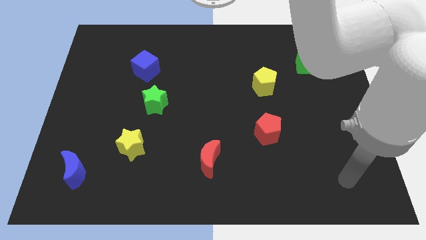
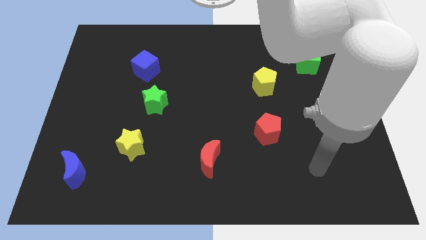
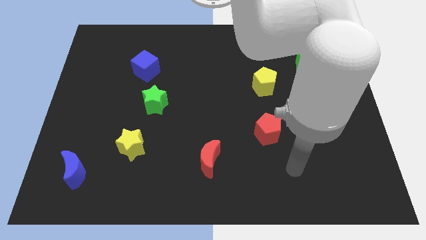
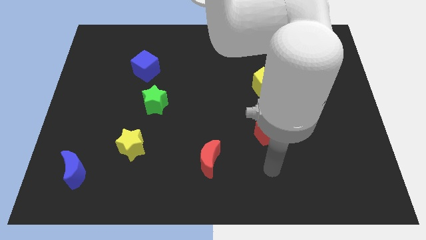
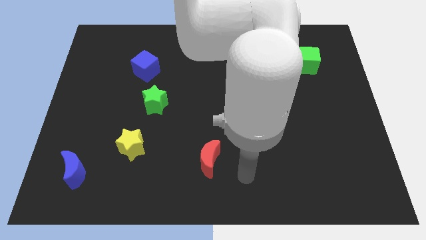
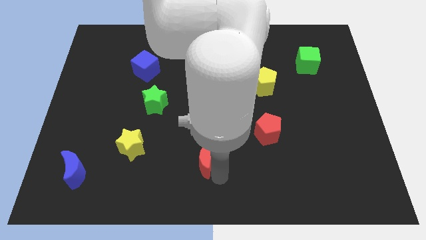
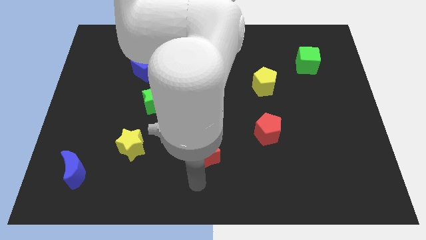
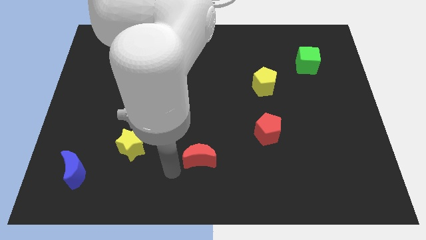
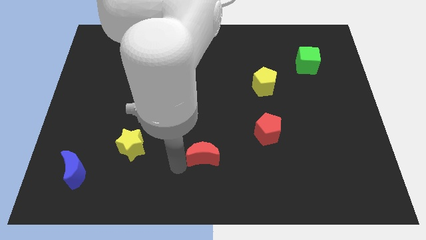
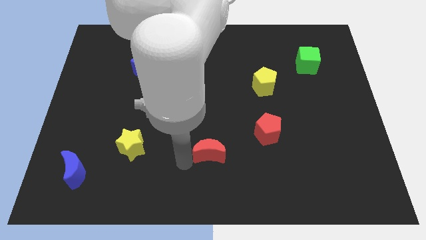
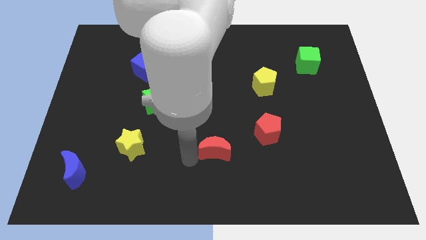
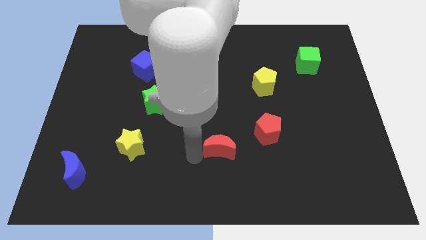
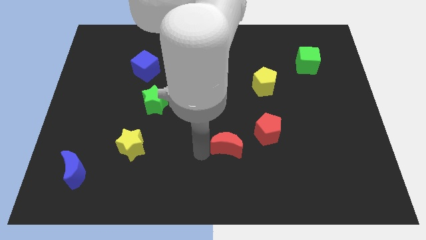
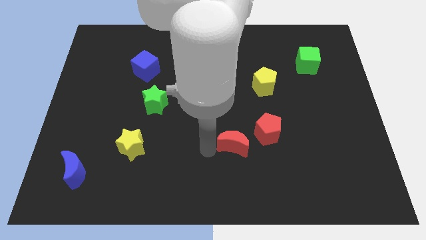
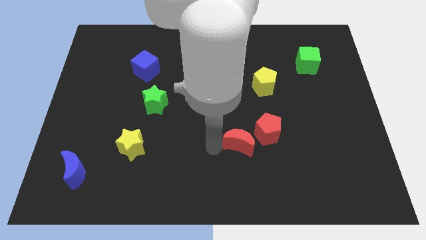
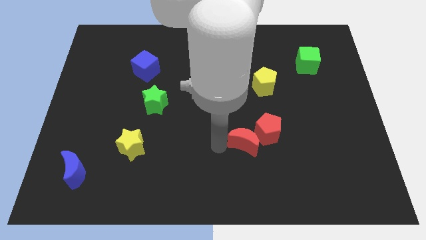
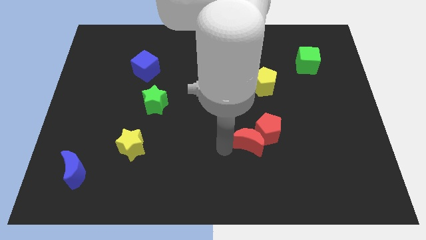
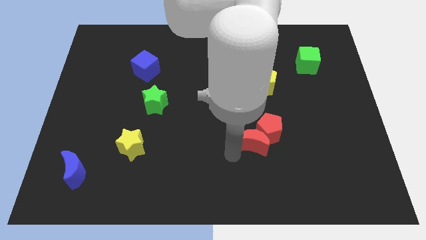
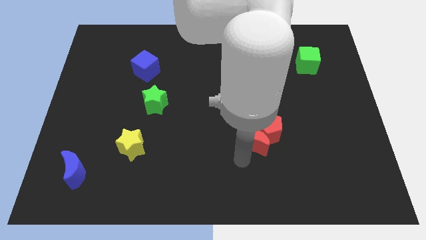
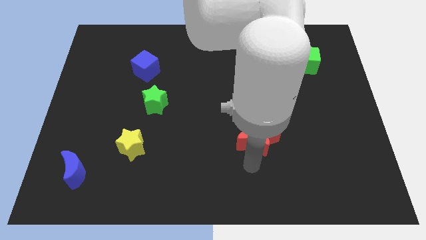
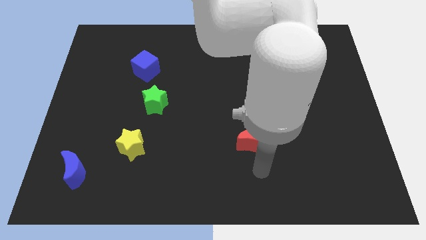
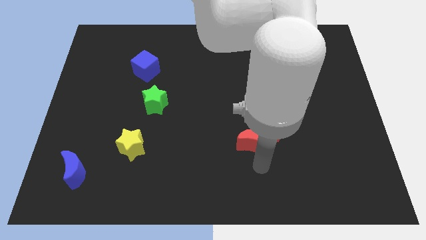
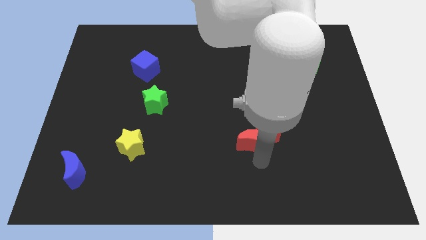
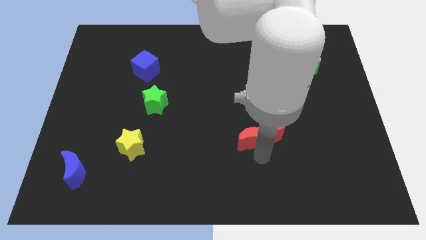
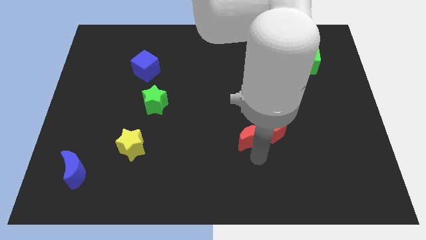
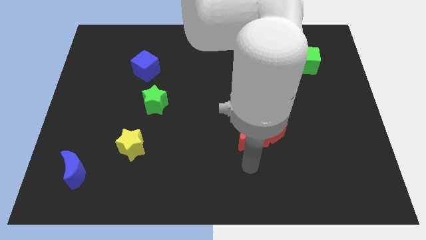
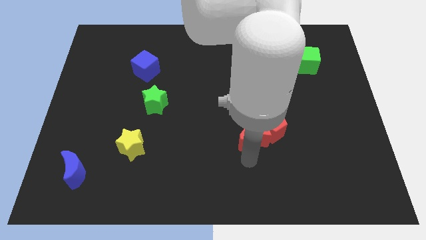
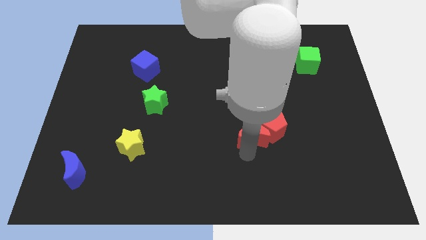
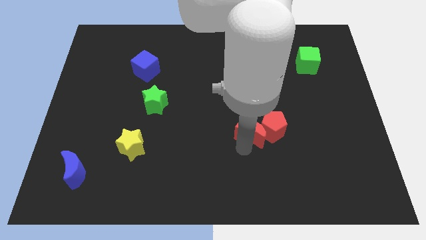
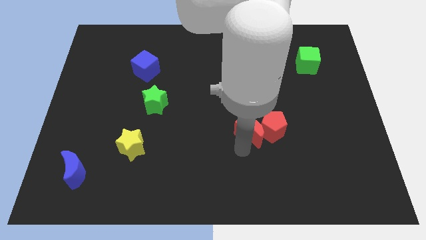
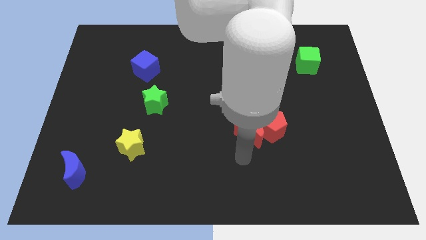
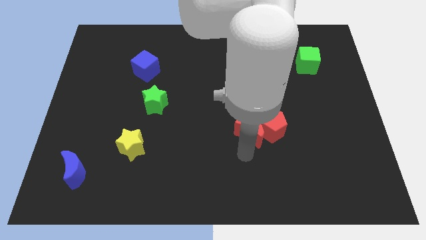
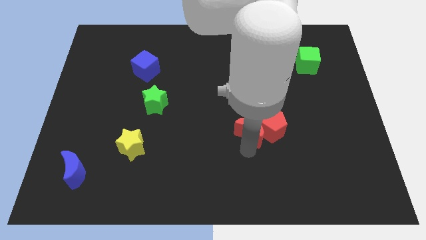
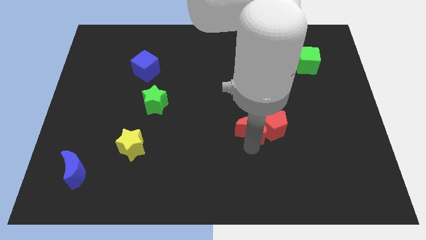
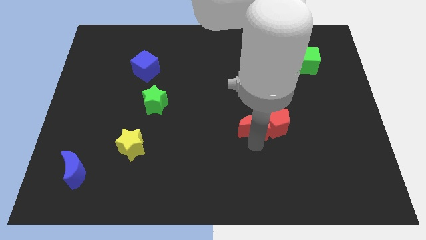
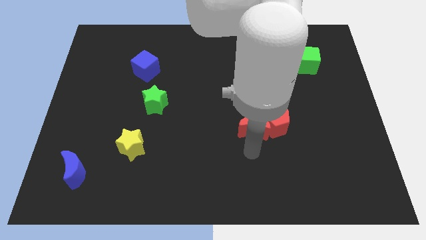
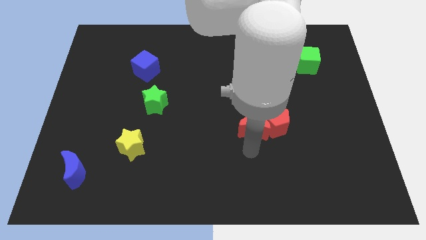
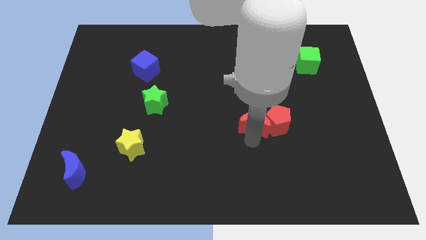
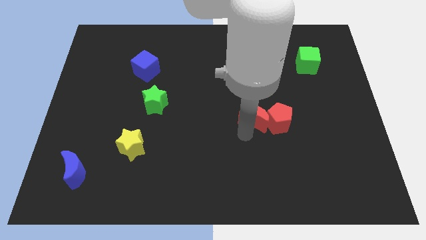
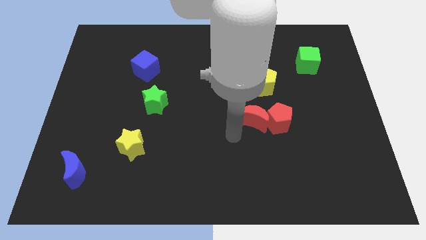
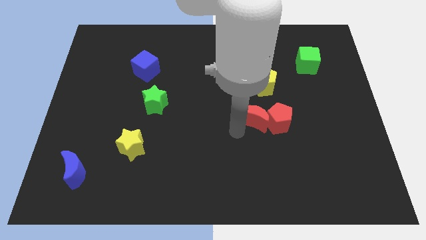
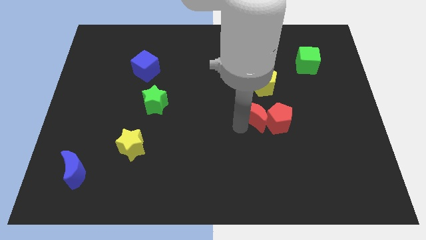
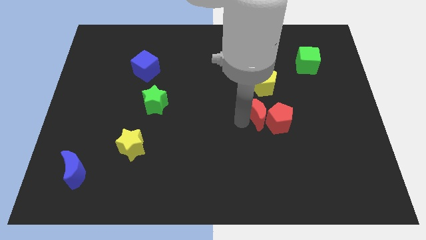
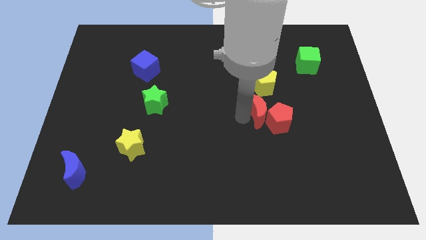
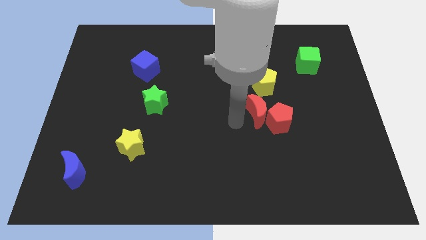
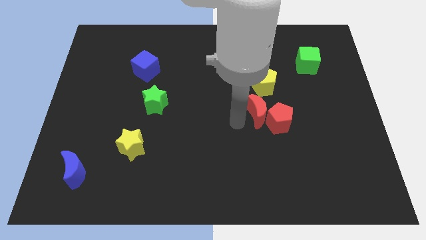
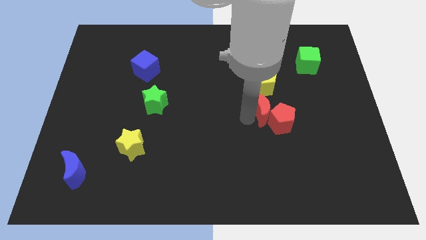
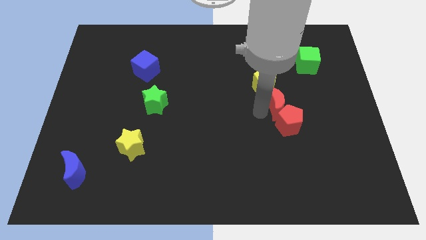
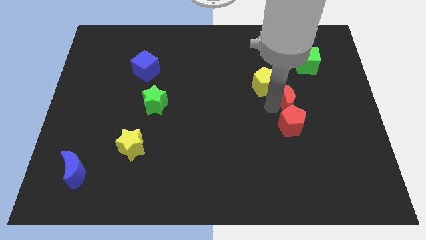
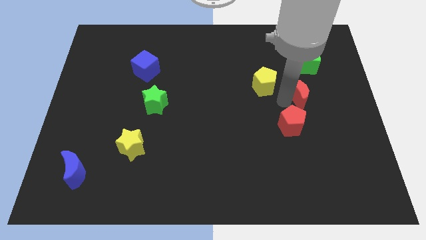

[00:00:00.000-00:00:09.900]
push the red moon to the bottom of the green cube

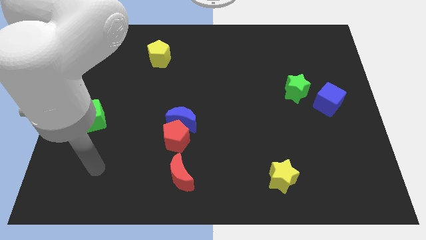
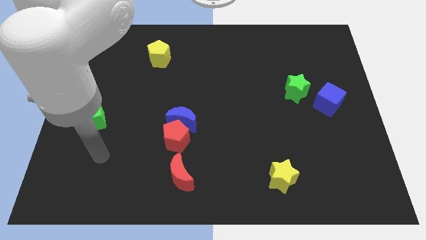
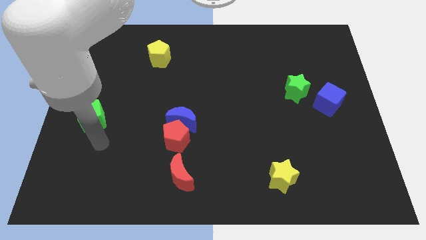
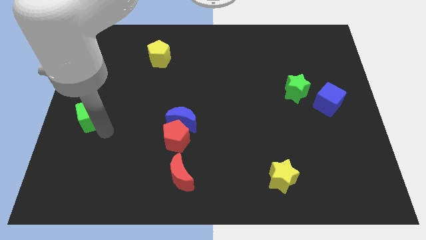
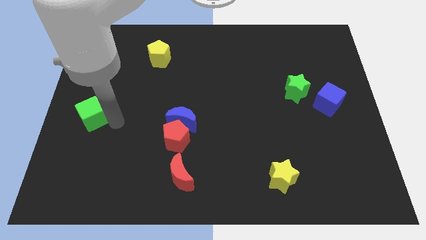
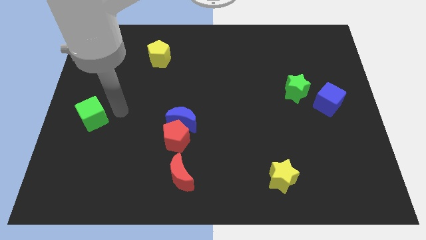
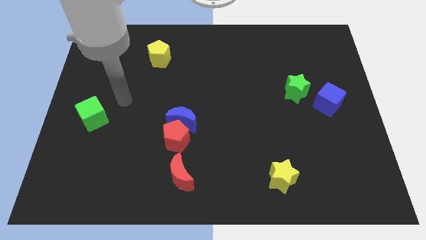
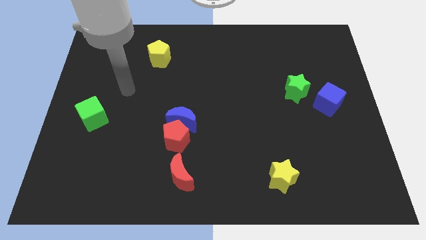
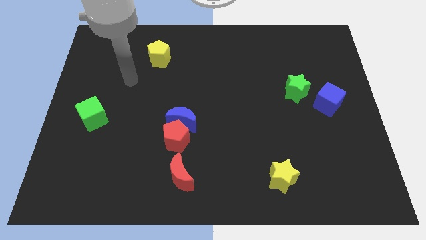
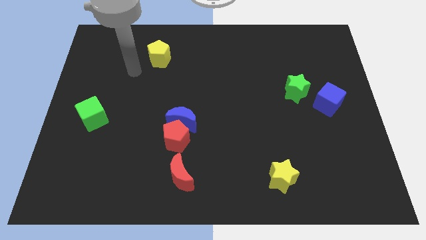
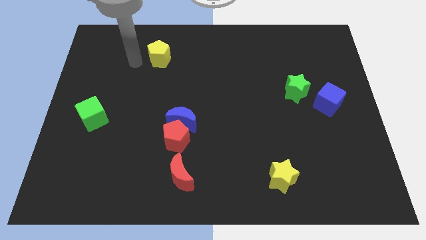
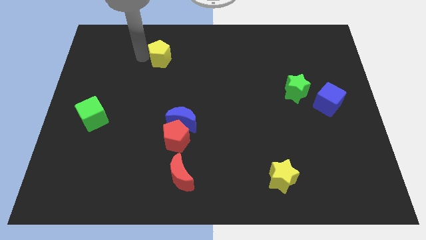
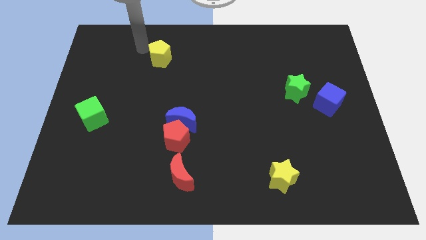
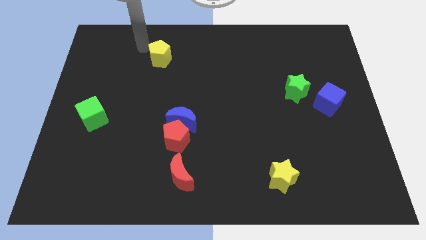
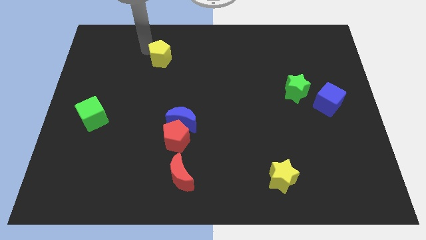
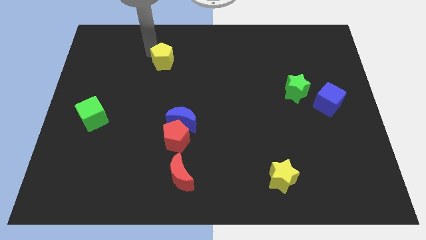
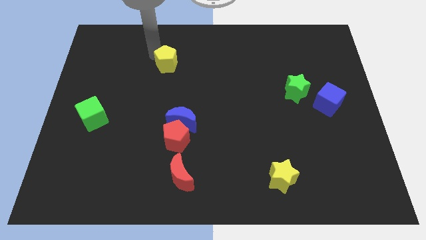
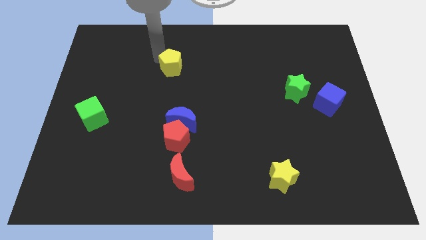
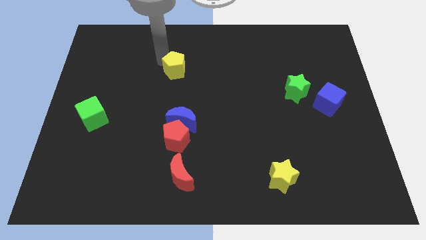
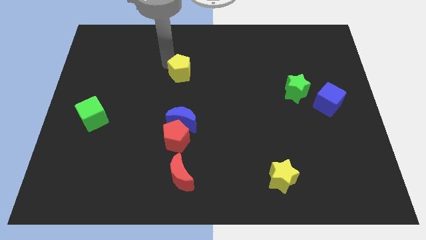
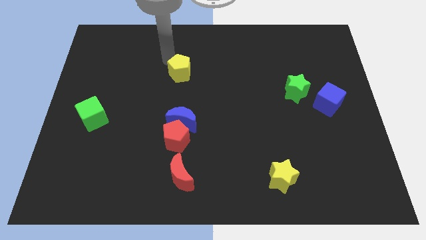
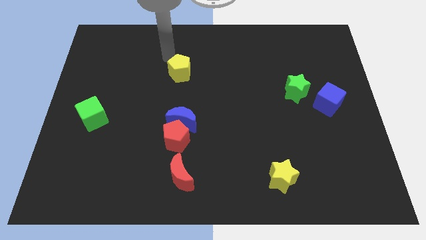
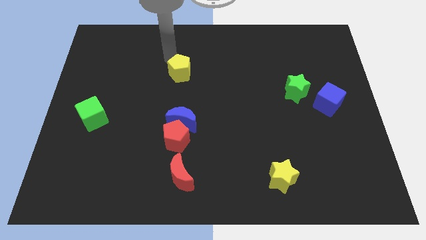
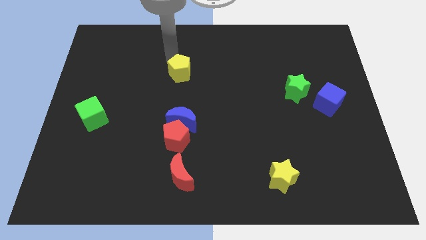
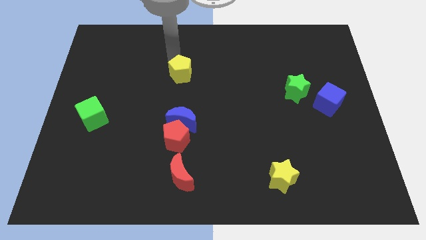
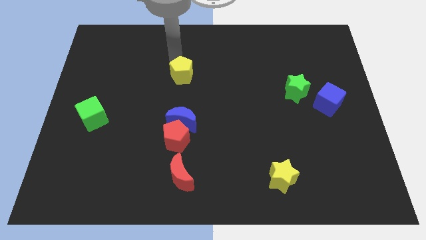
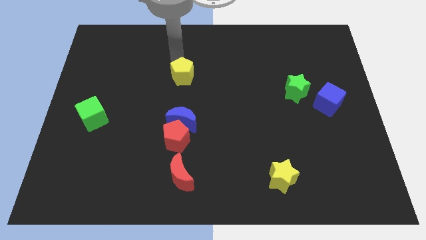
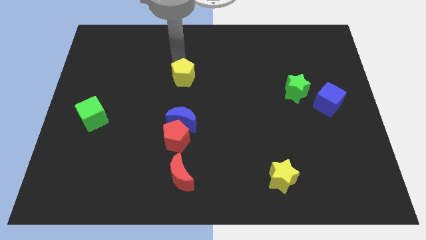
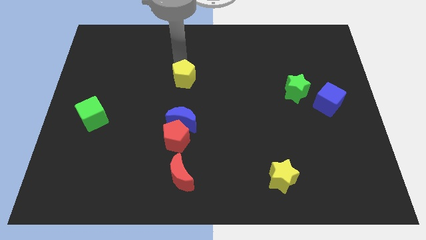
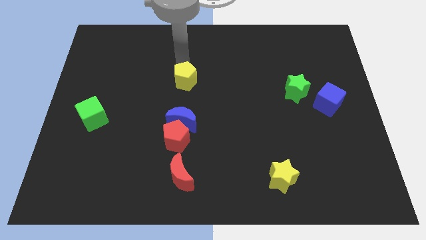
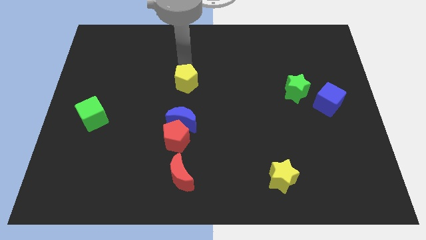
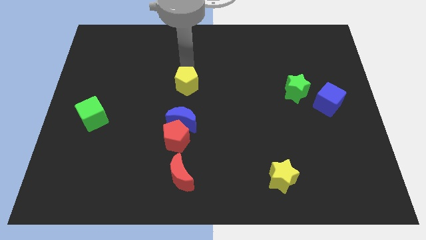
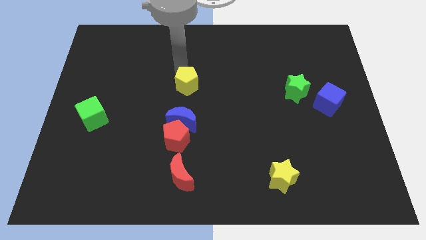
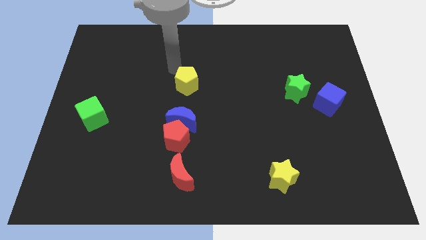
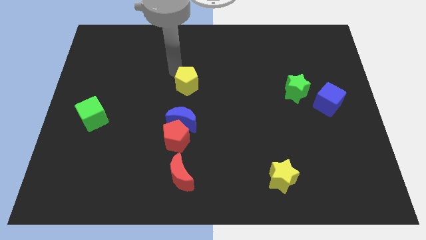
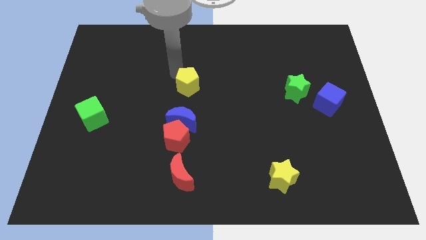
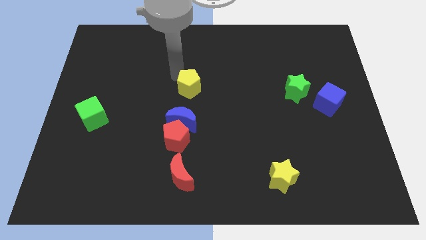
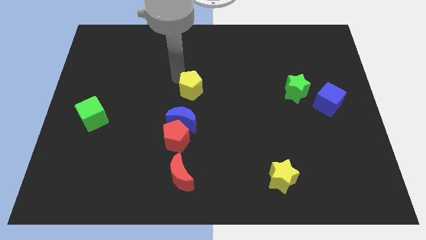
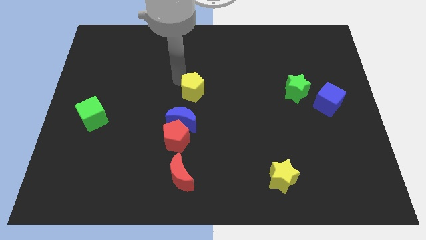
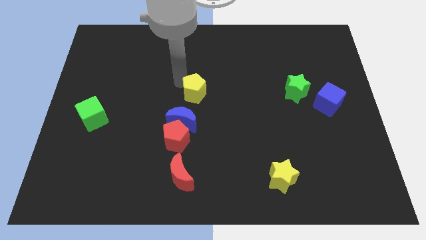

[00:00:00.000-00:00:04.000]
slide the yellow pentagon to the top right of the blue moon
